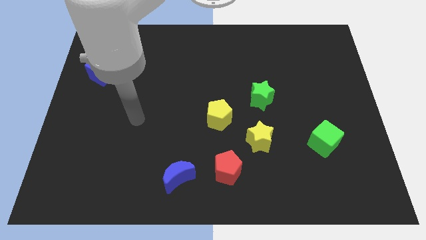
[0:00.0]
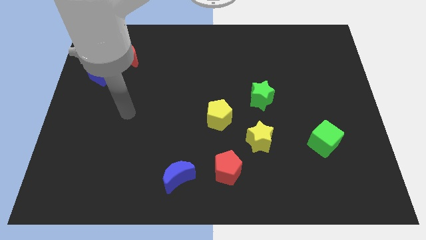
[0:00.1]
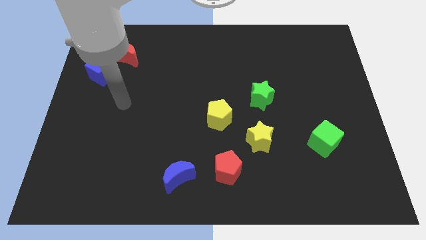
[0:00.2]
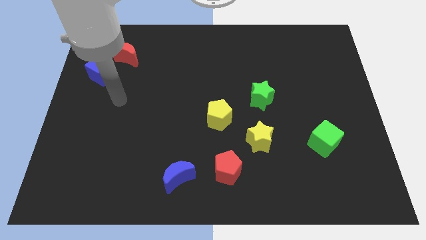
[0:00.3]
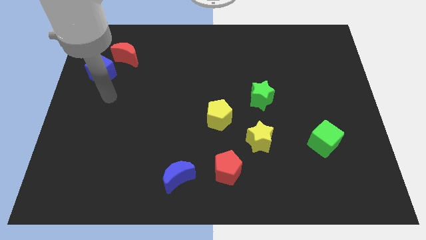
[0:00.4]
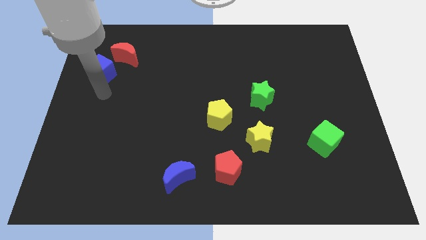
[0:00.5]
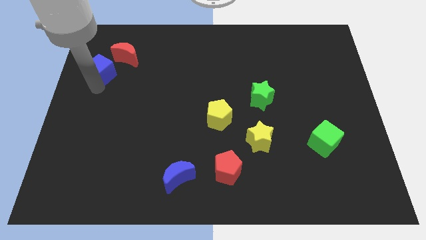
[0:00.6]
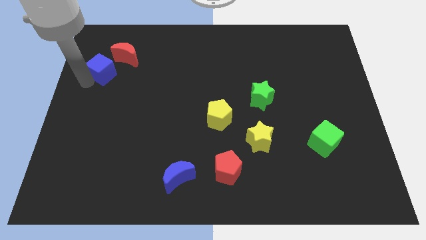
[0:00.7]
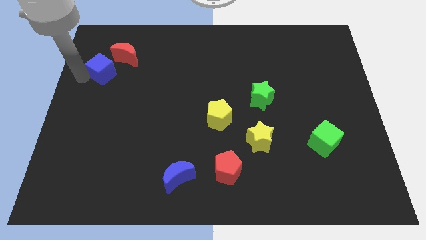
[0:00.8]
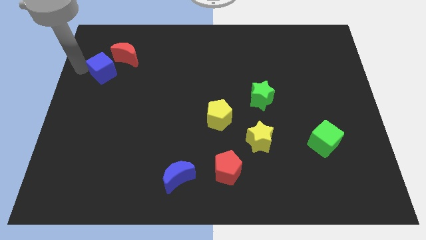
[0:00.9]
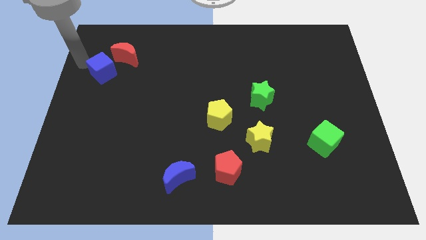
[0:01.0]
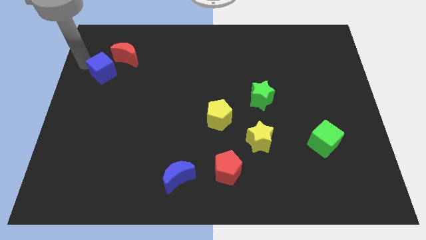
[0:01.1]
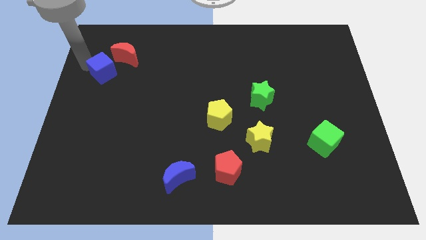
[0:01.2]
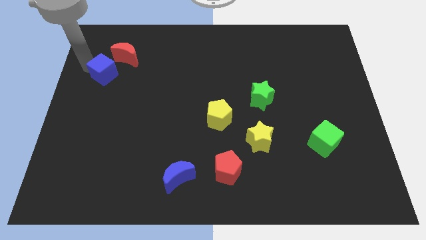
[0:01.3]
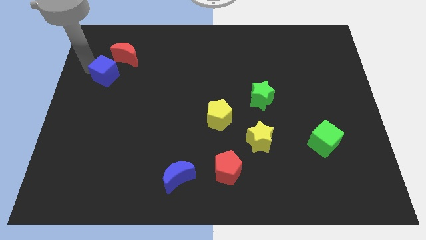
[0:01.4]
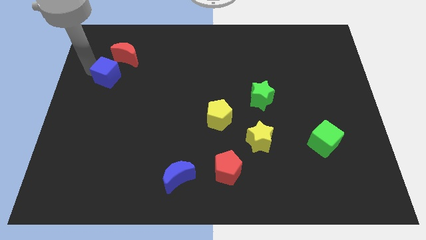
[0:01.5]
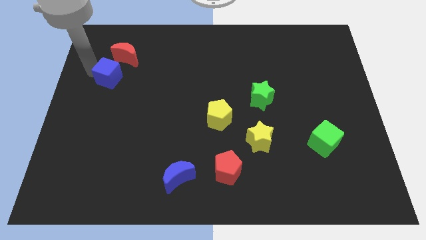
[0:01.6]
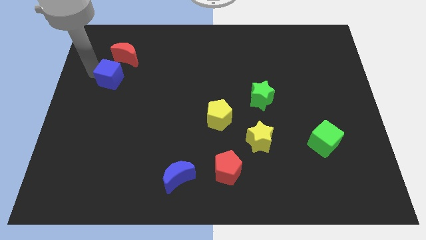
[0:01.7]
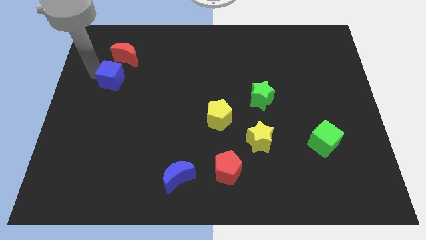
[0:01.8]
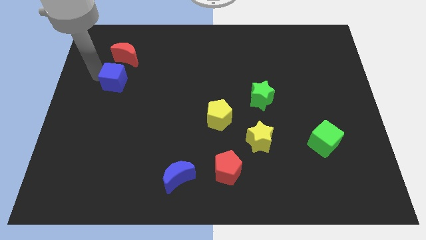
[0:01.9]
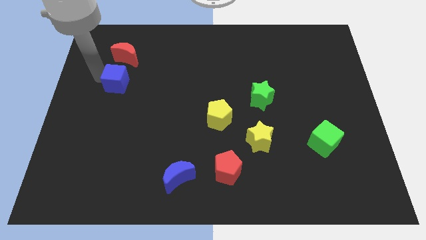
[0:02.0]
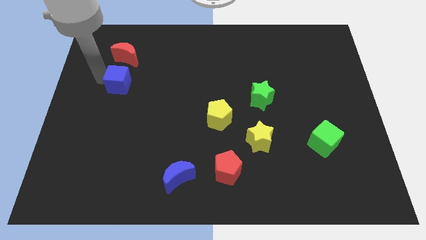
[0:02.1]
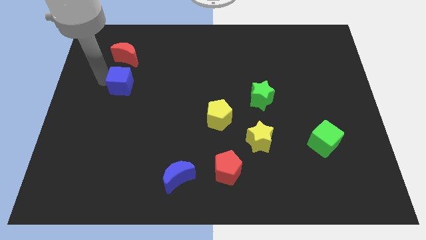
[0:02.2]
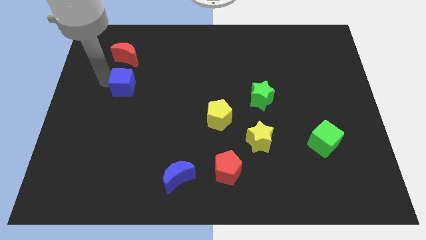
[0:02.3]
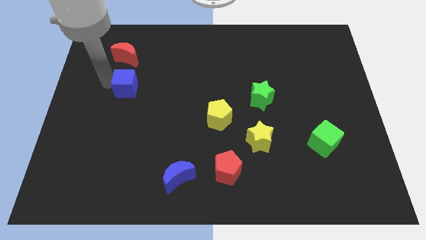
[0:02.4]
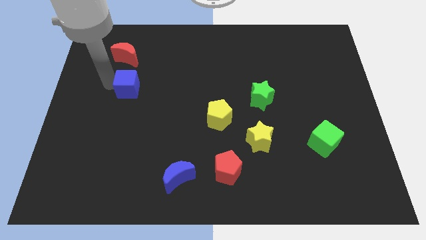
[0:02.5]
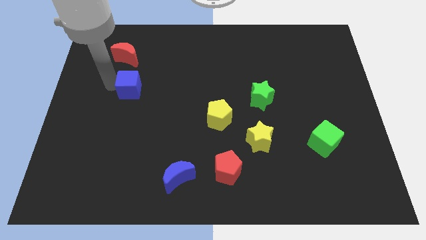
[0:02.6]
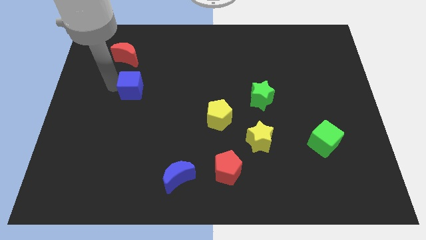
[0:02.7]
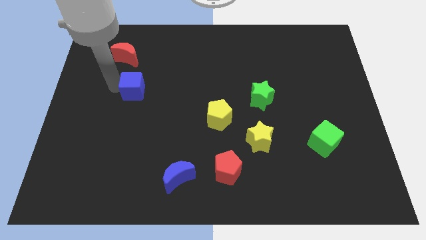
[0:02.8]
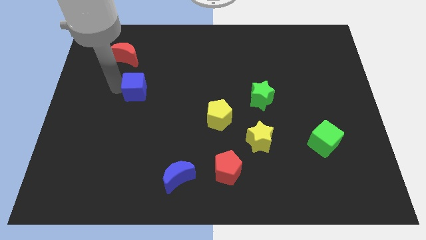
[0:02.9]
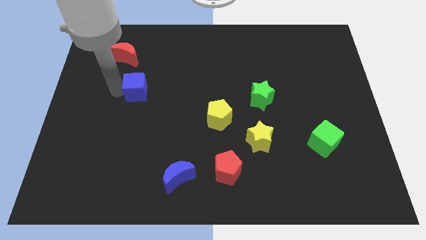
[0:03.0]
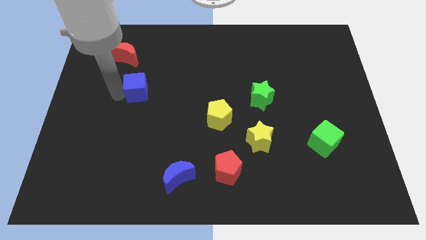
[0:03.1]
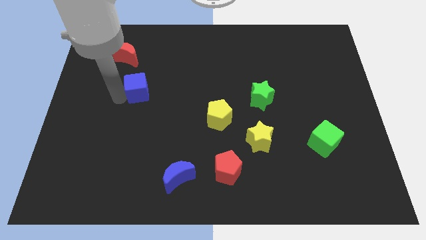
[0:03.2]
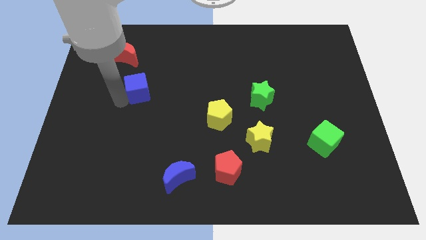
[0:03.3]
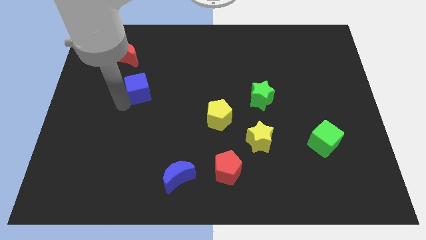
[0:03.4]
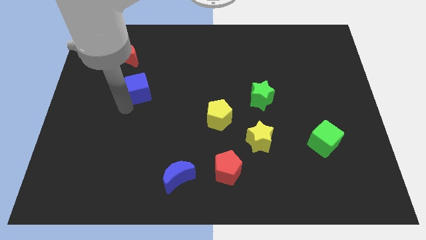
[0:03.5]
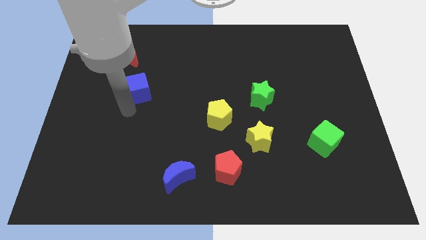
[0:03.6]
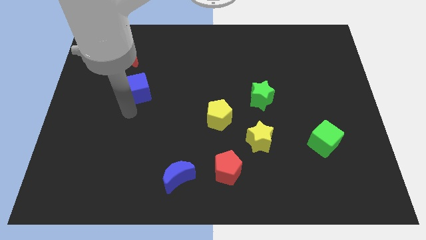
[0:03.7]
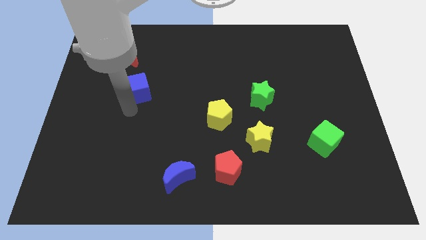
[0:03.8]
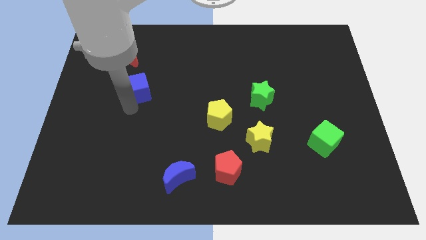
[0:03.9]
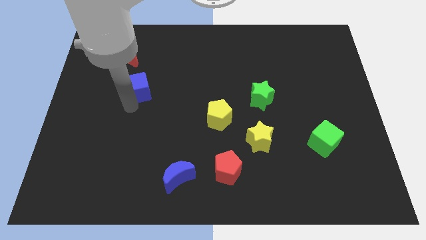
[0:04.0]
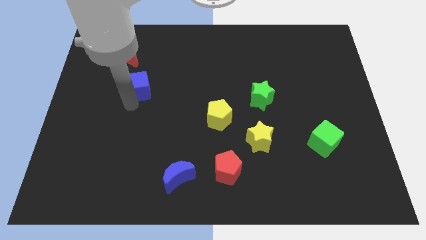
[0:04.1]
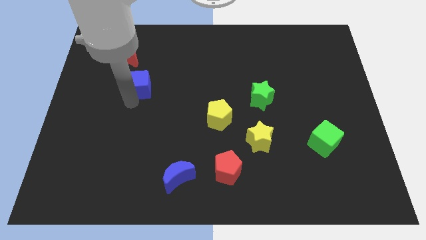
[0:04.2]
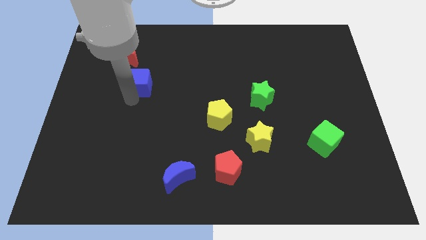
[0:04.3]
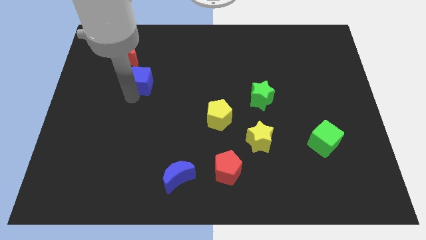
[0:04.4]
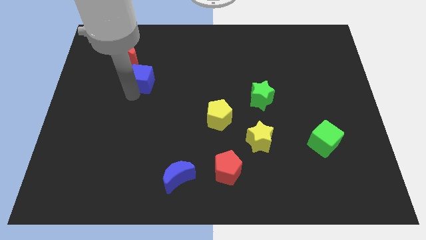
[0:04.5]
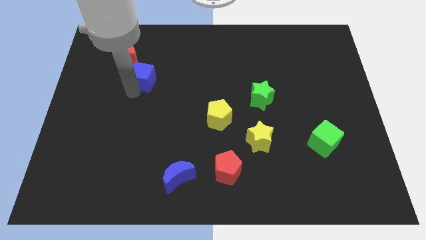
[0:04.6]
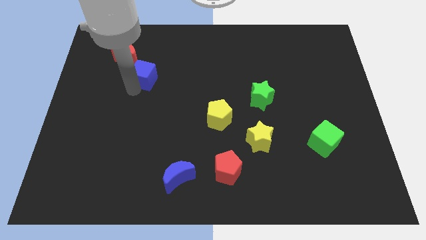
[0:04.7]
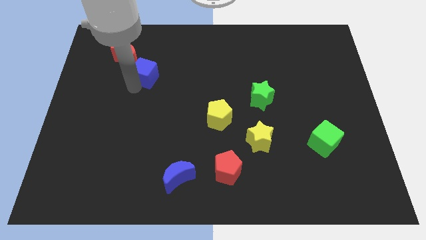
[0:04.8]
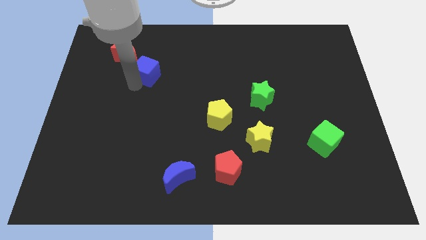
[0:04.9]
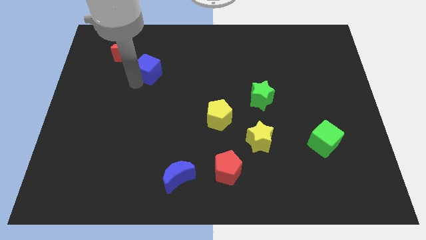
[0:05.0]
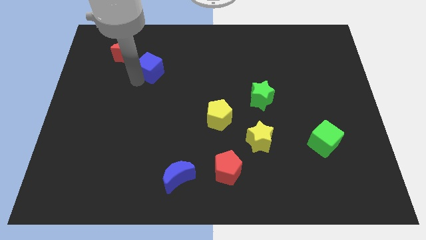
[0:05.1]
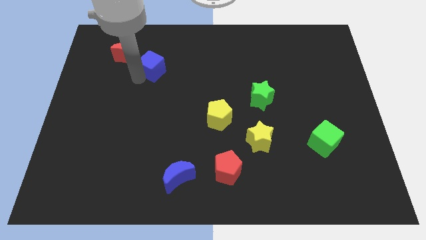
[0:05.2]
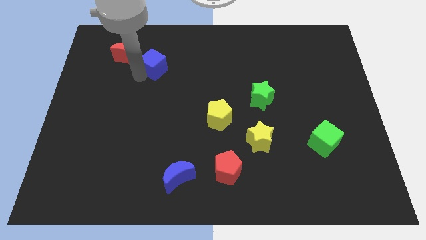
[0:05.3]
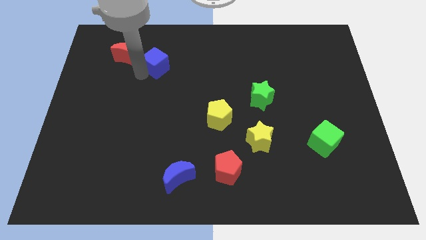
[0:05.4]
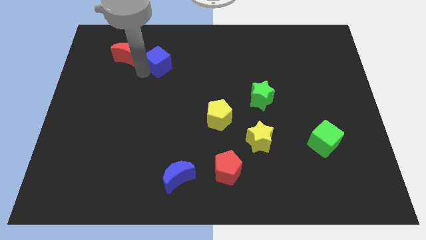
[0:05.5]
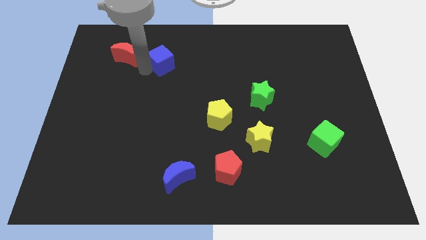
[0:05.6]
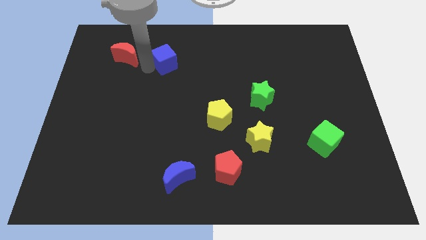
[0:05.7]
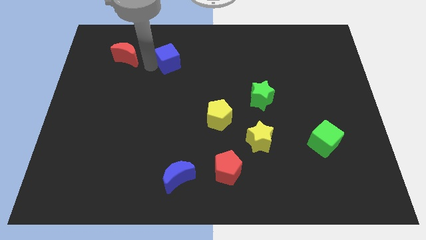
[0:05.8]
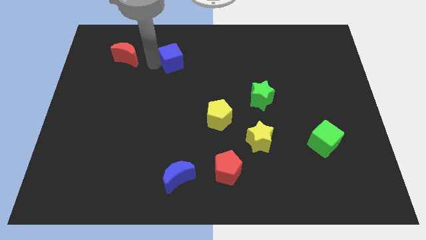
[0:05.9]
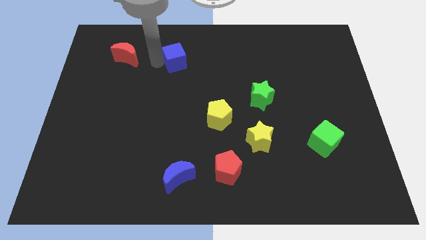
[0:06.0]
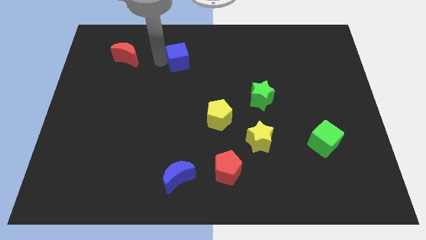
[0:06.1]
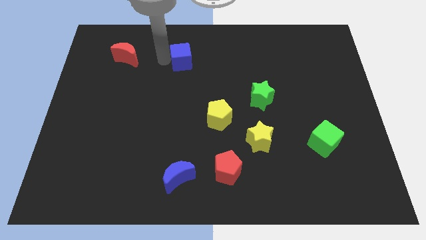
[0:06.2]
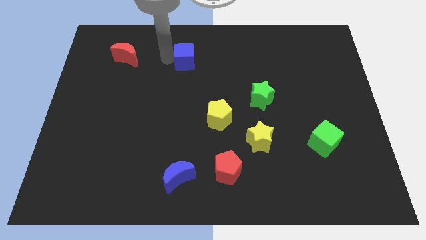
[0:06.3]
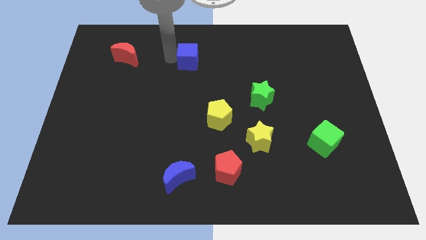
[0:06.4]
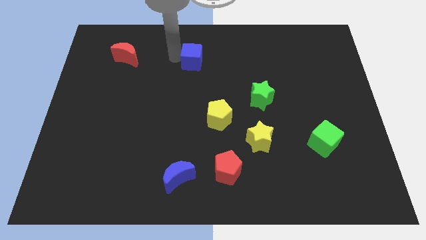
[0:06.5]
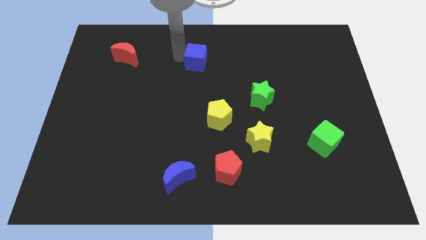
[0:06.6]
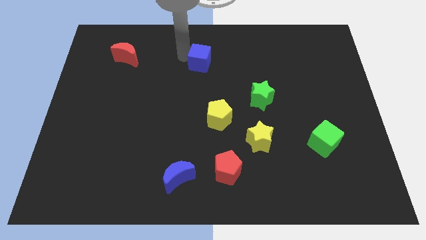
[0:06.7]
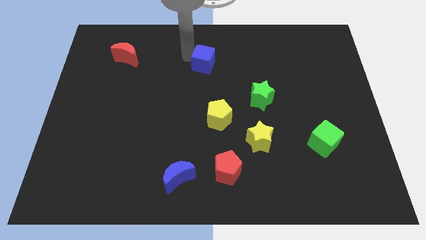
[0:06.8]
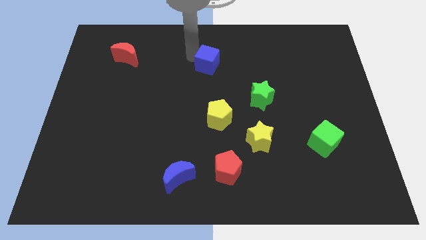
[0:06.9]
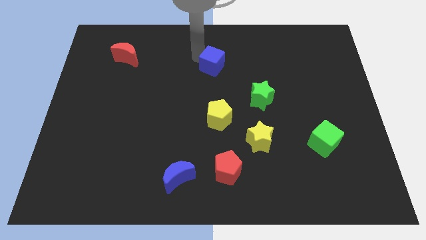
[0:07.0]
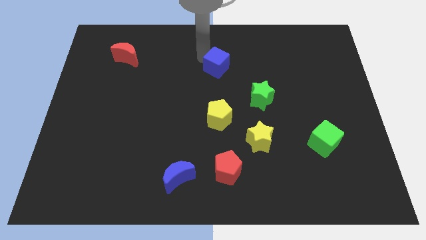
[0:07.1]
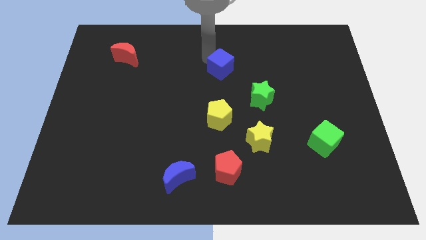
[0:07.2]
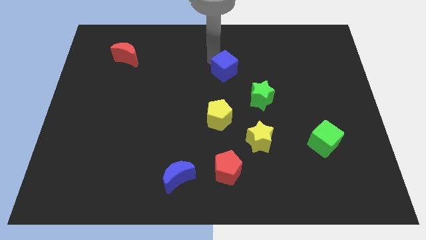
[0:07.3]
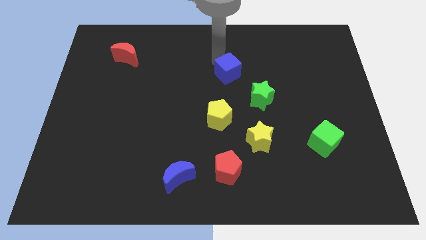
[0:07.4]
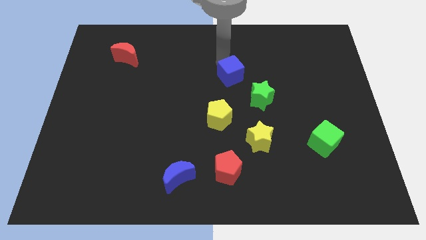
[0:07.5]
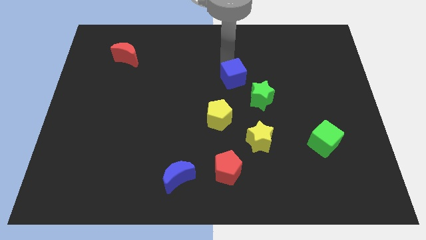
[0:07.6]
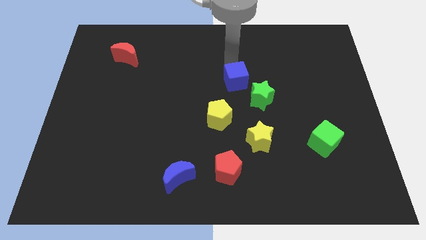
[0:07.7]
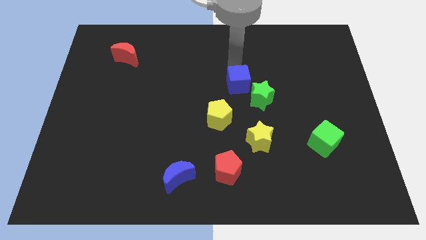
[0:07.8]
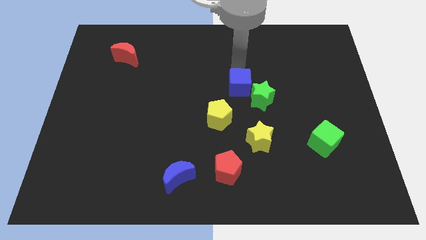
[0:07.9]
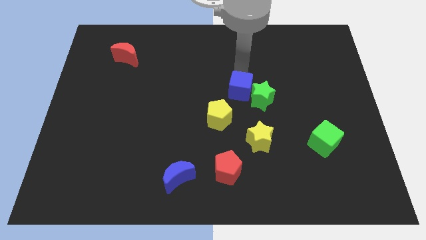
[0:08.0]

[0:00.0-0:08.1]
put the blue cube to the green star
